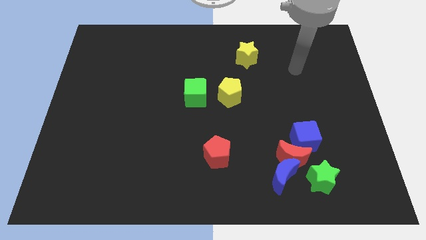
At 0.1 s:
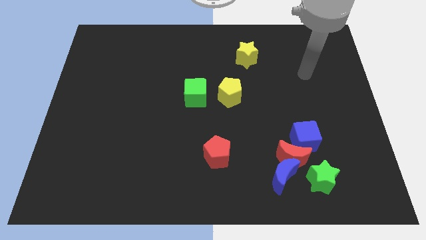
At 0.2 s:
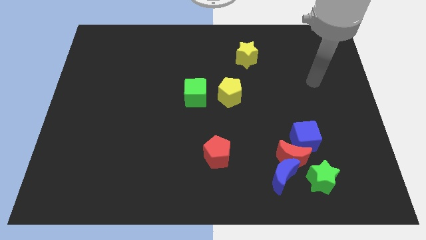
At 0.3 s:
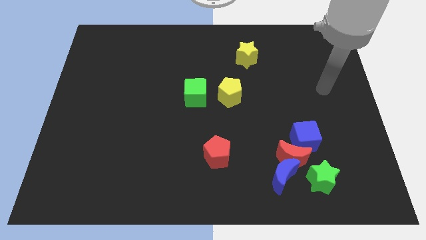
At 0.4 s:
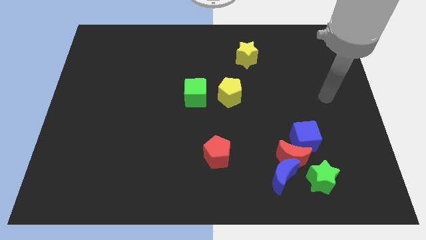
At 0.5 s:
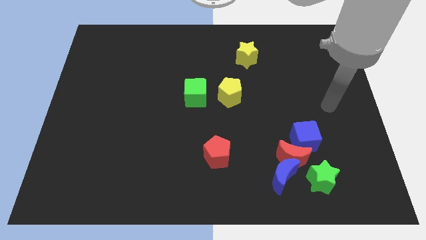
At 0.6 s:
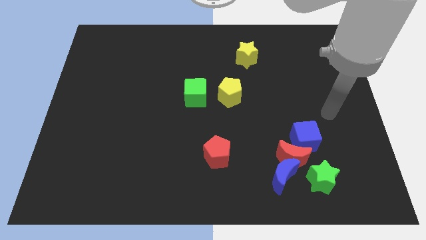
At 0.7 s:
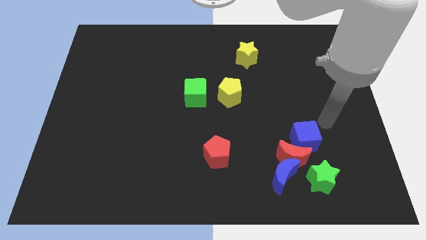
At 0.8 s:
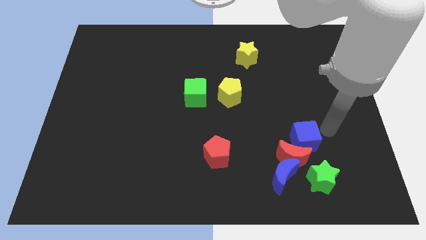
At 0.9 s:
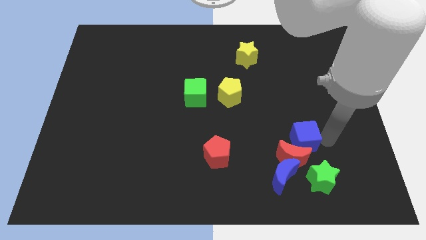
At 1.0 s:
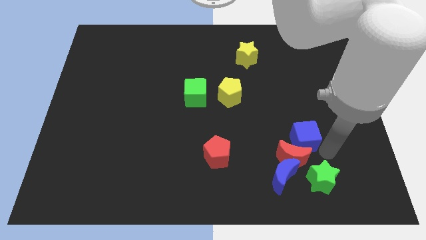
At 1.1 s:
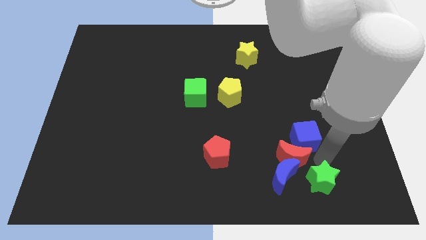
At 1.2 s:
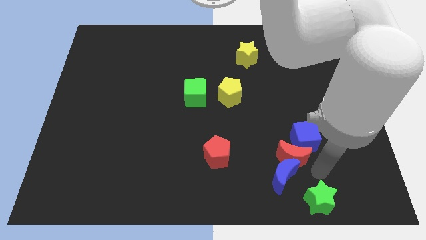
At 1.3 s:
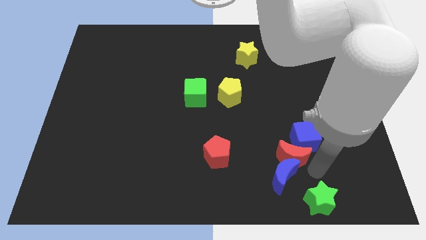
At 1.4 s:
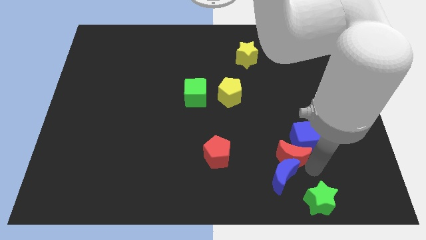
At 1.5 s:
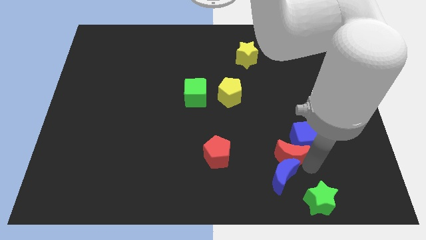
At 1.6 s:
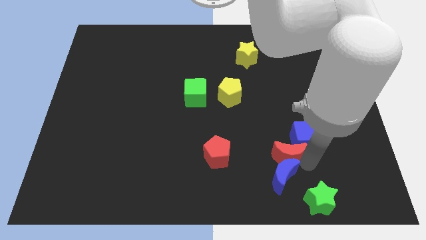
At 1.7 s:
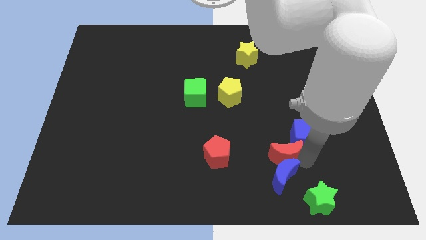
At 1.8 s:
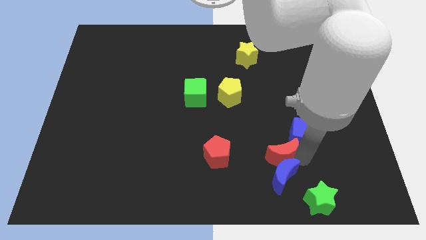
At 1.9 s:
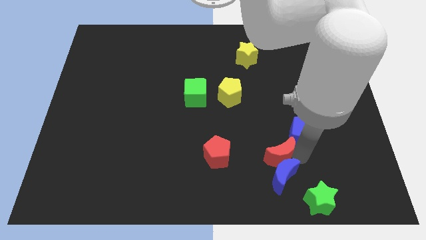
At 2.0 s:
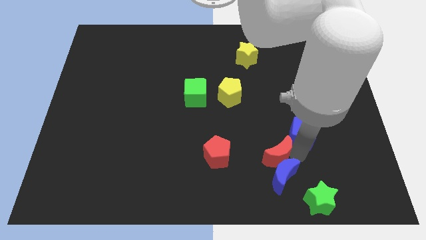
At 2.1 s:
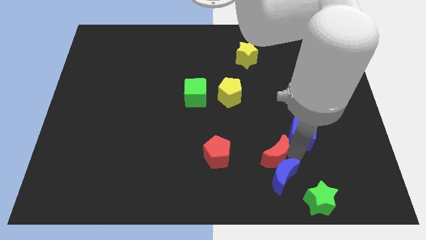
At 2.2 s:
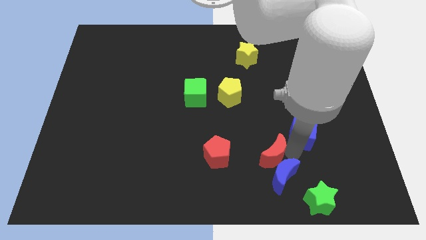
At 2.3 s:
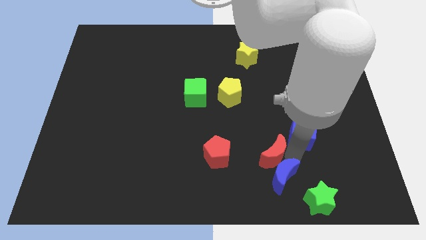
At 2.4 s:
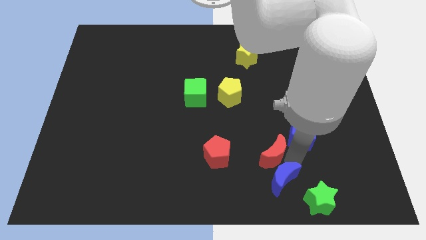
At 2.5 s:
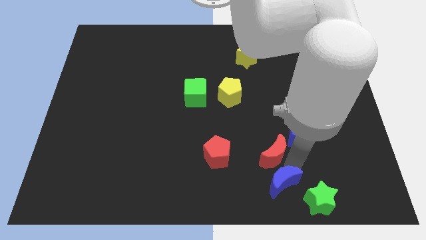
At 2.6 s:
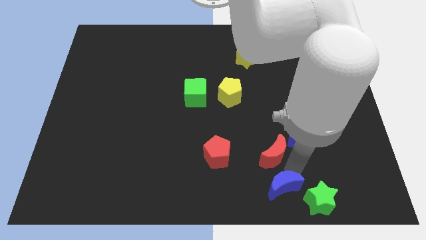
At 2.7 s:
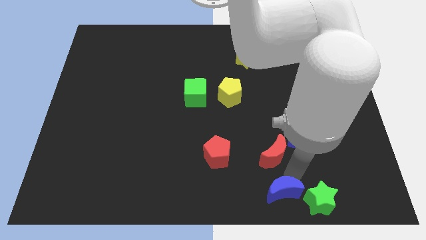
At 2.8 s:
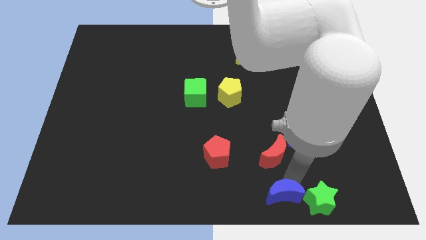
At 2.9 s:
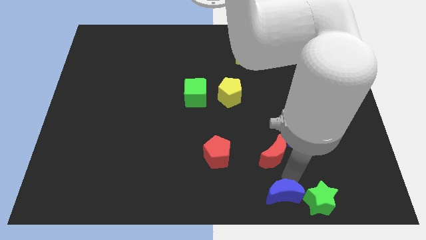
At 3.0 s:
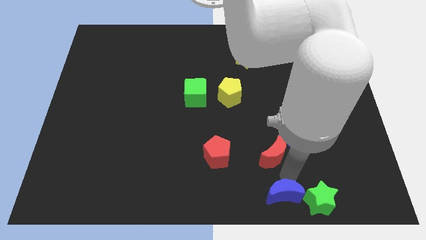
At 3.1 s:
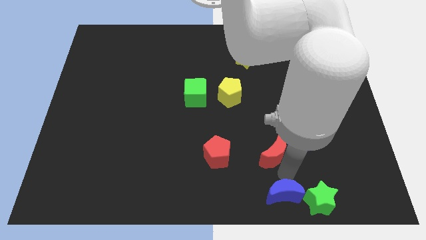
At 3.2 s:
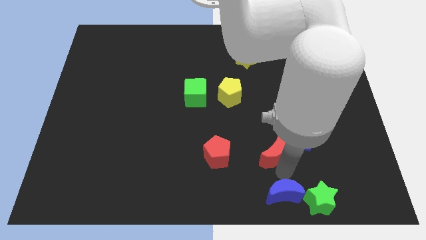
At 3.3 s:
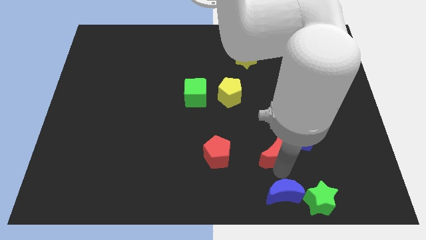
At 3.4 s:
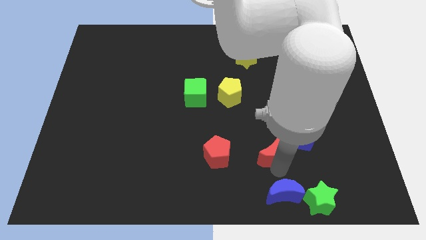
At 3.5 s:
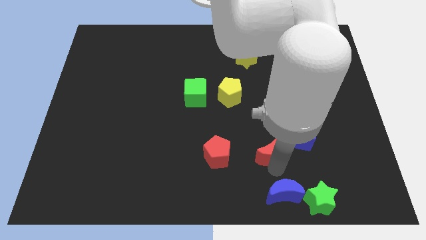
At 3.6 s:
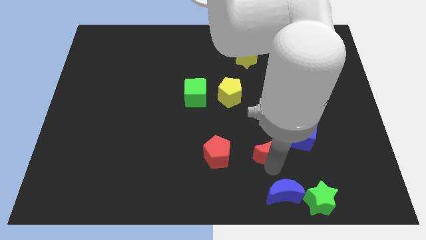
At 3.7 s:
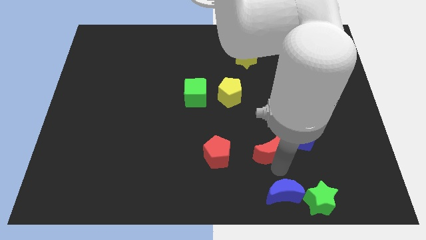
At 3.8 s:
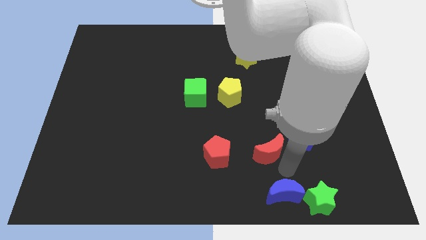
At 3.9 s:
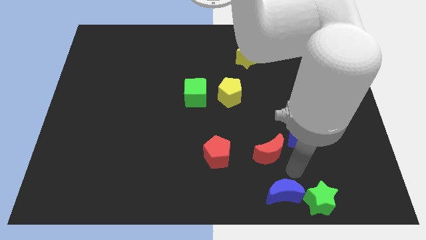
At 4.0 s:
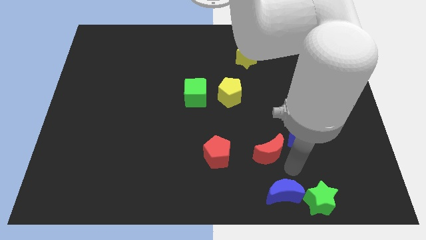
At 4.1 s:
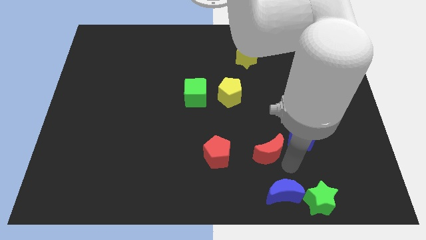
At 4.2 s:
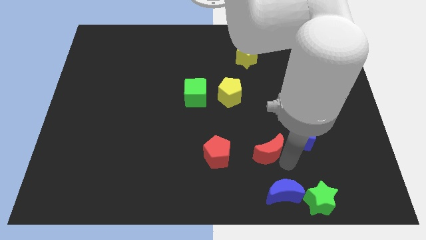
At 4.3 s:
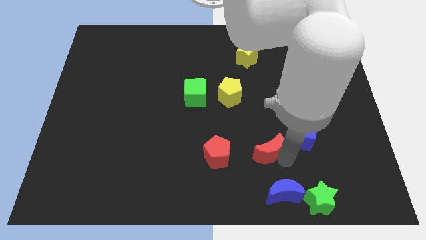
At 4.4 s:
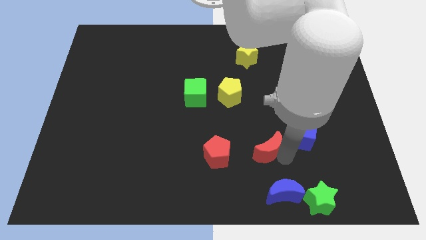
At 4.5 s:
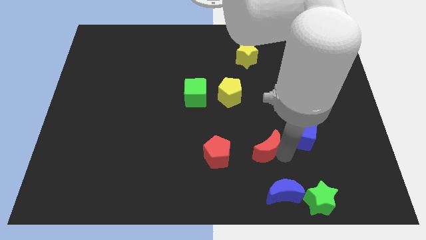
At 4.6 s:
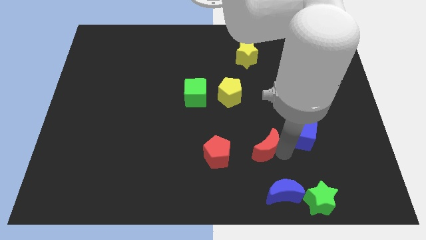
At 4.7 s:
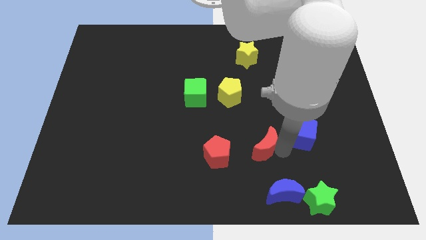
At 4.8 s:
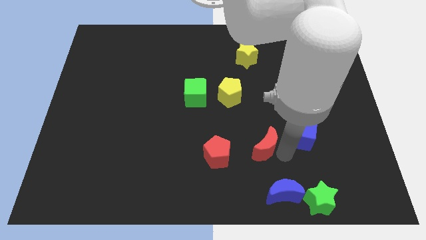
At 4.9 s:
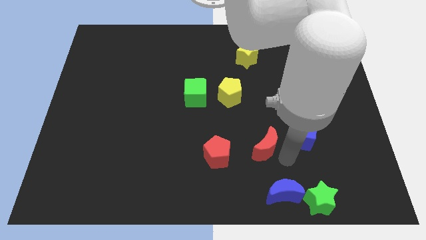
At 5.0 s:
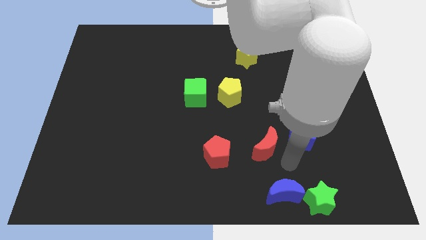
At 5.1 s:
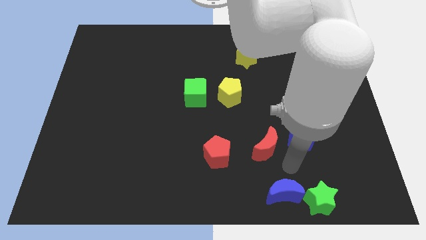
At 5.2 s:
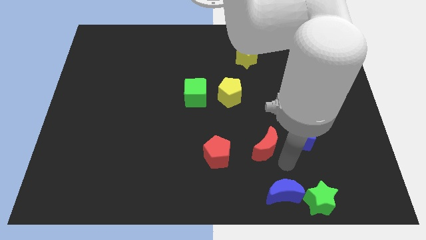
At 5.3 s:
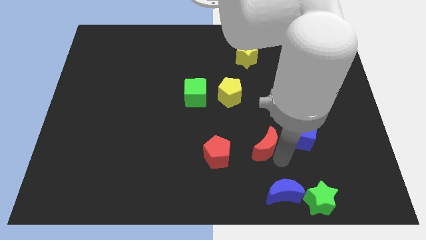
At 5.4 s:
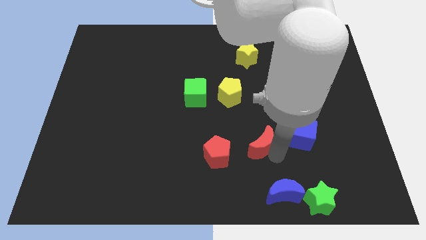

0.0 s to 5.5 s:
pull the red moon apart from the clump

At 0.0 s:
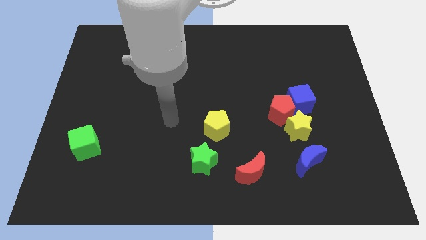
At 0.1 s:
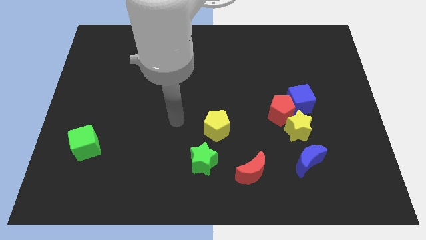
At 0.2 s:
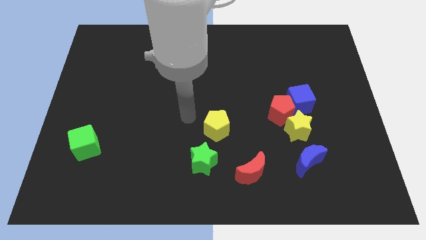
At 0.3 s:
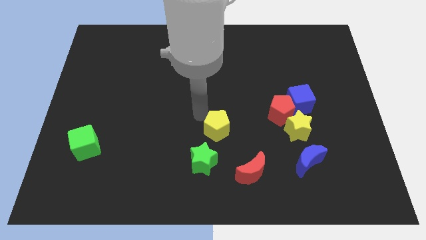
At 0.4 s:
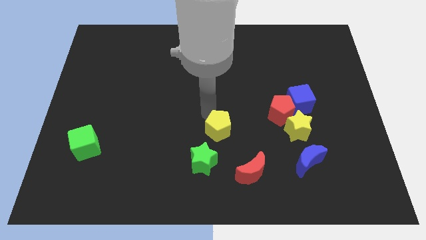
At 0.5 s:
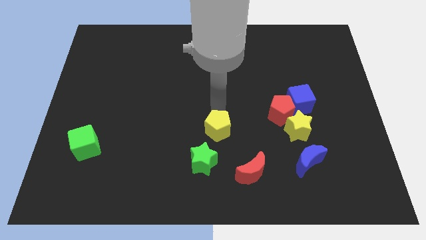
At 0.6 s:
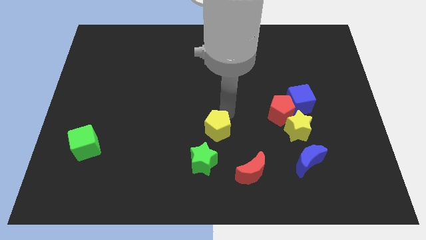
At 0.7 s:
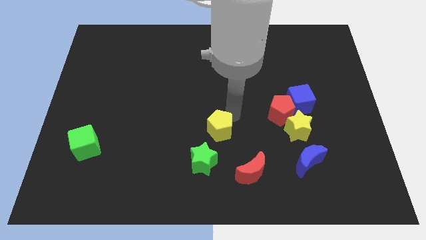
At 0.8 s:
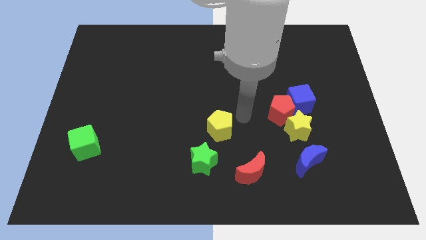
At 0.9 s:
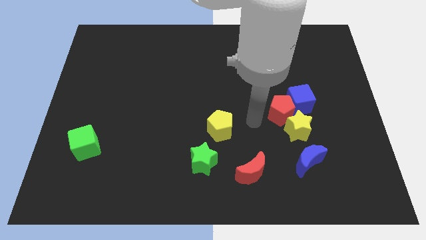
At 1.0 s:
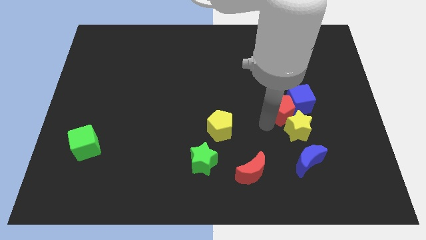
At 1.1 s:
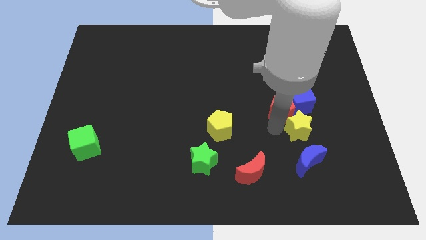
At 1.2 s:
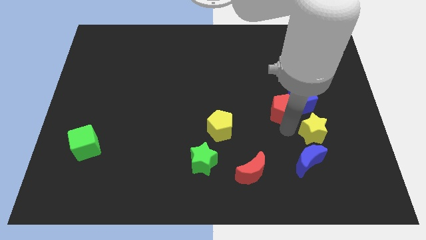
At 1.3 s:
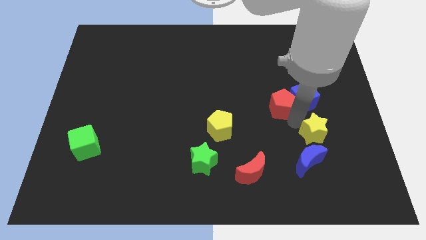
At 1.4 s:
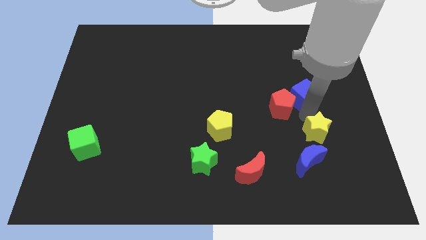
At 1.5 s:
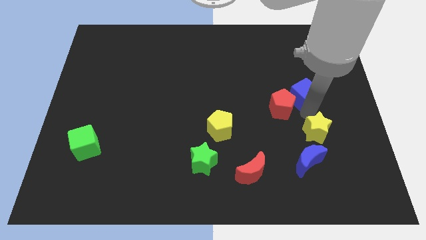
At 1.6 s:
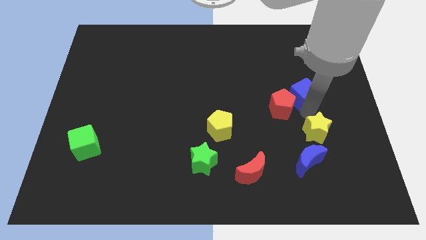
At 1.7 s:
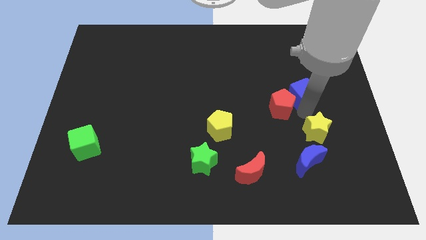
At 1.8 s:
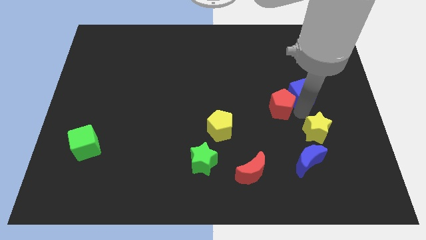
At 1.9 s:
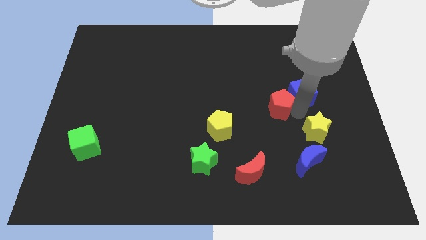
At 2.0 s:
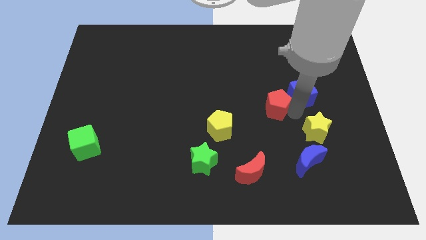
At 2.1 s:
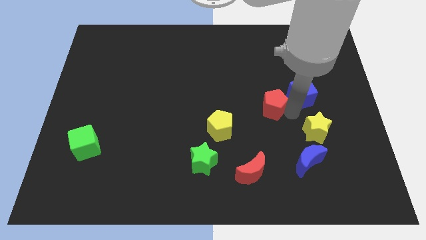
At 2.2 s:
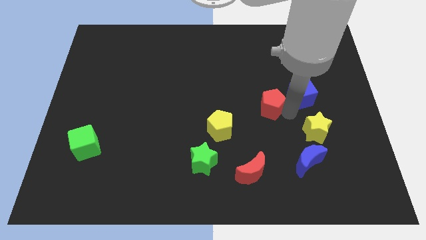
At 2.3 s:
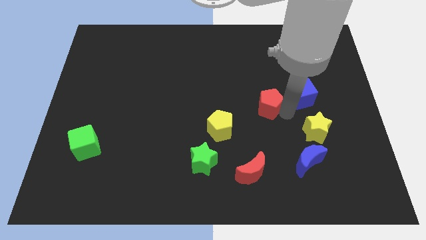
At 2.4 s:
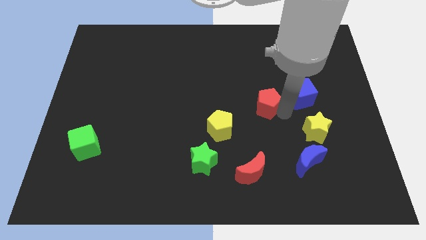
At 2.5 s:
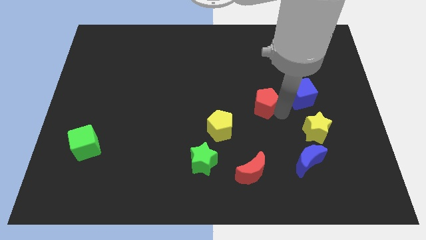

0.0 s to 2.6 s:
pull the red pentagon apart from the blue cube and yellow star

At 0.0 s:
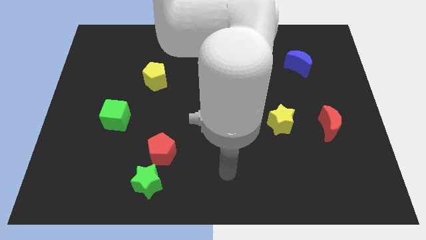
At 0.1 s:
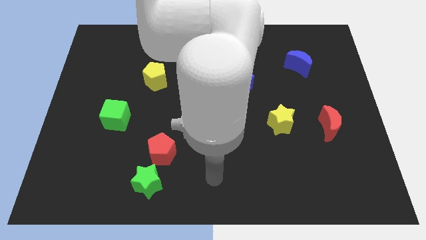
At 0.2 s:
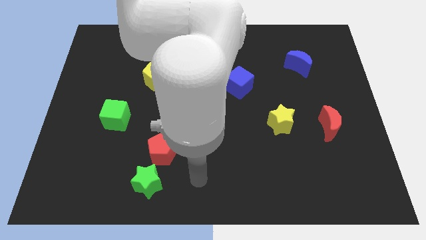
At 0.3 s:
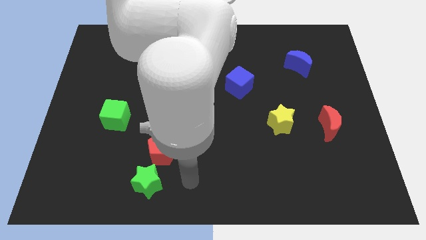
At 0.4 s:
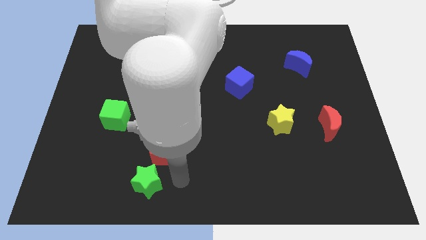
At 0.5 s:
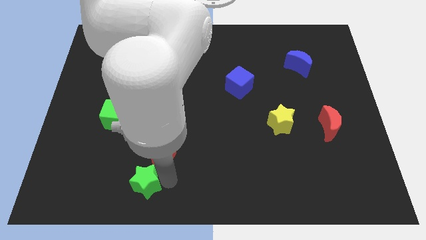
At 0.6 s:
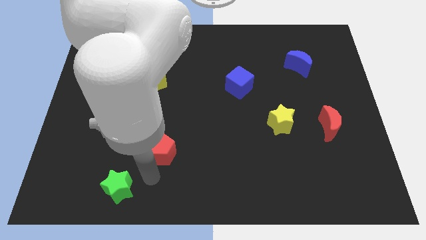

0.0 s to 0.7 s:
move the red pentagon away from the green star

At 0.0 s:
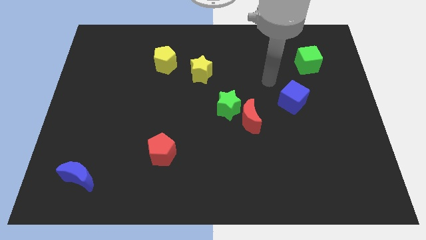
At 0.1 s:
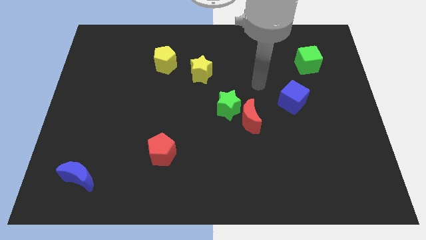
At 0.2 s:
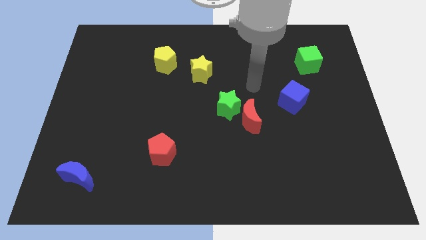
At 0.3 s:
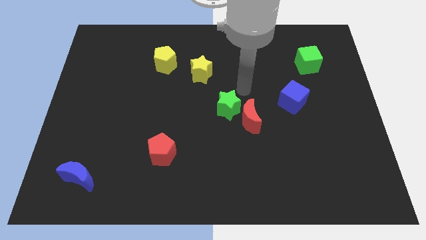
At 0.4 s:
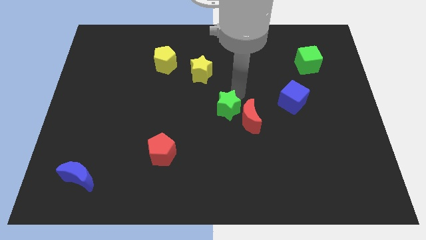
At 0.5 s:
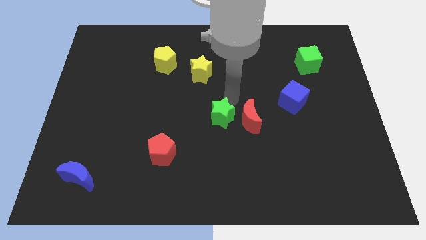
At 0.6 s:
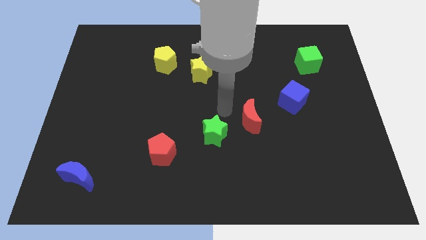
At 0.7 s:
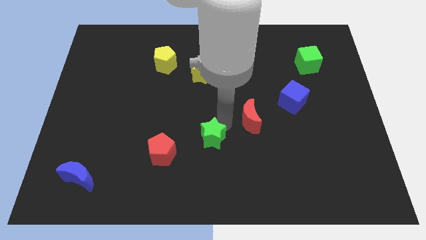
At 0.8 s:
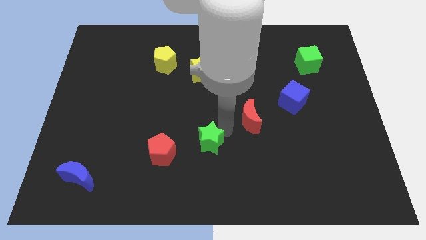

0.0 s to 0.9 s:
pull the red moon apart from the green star
